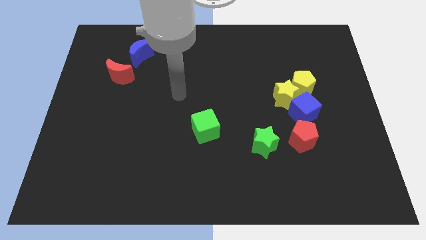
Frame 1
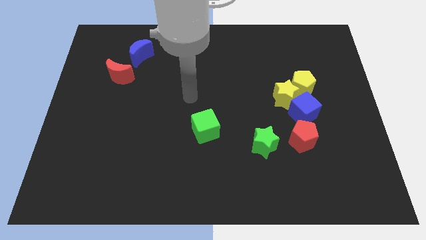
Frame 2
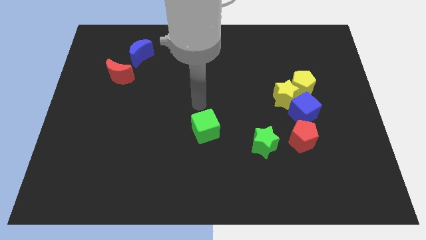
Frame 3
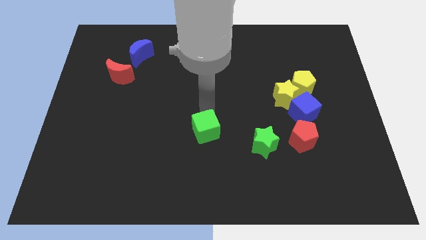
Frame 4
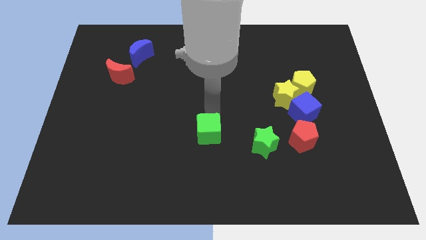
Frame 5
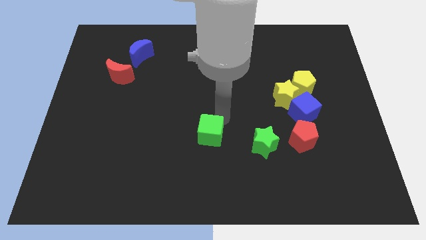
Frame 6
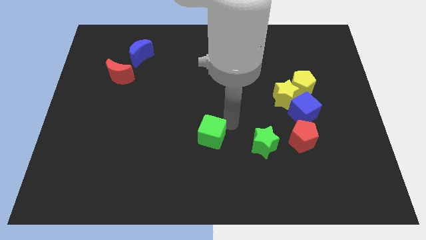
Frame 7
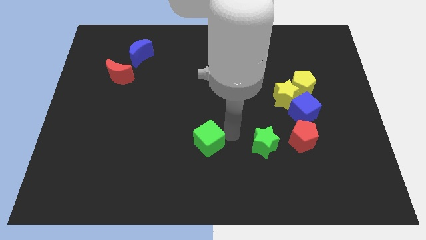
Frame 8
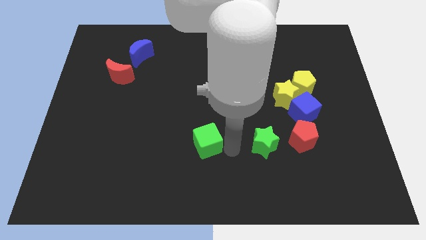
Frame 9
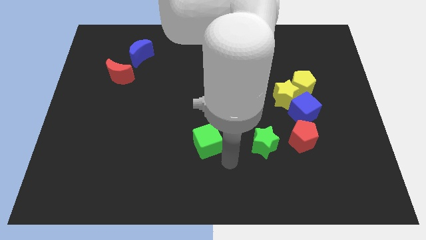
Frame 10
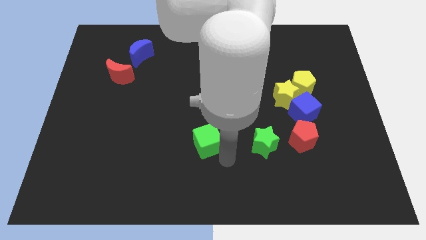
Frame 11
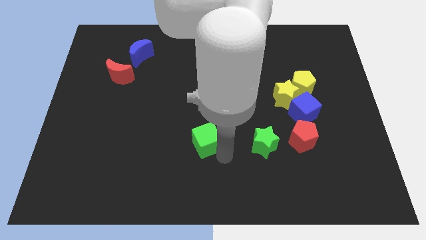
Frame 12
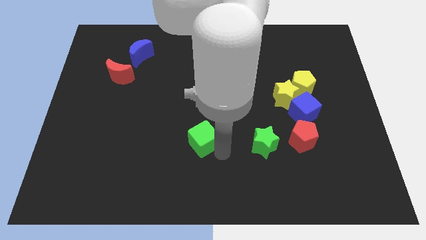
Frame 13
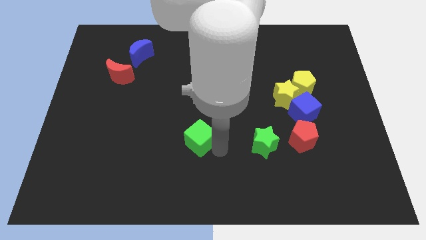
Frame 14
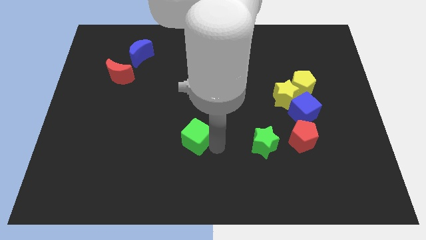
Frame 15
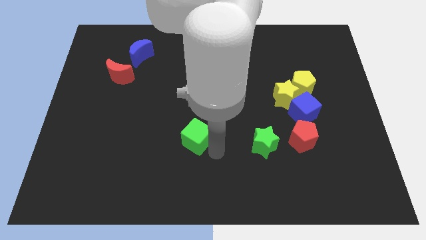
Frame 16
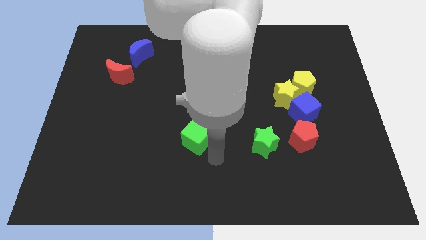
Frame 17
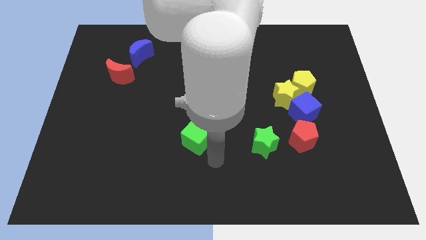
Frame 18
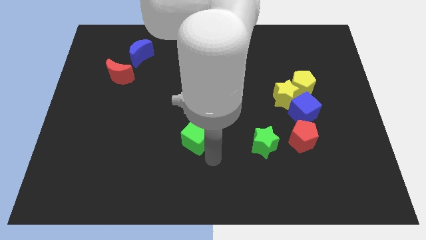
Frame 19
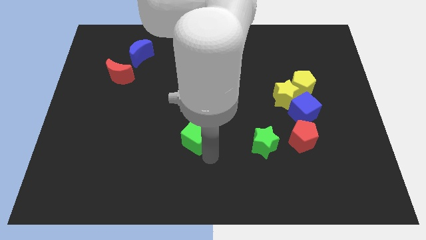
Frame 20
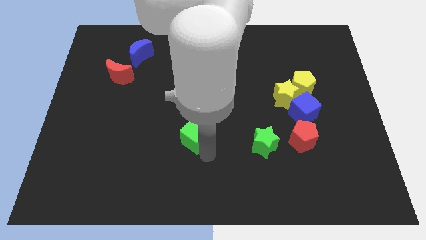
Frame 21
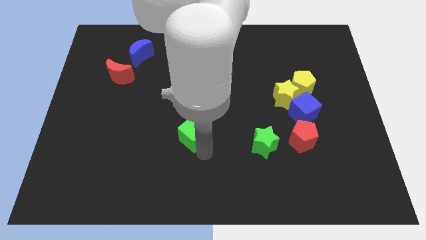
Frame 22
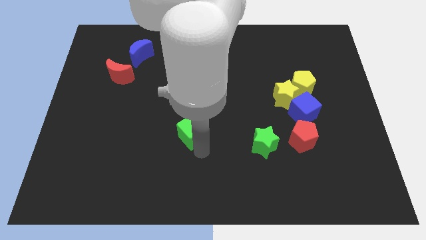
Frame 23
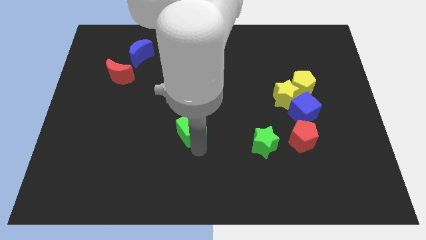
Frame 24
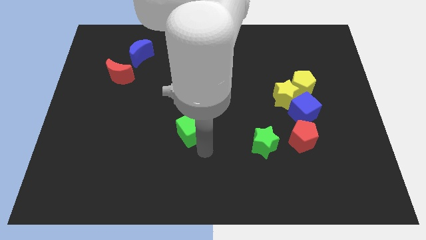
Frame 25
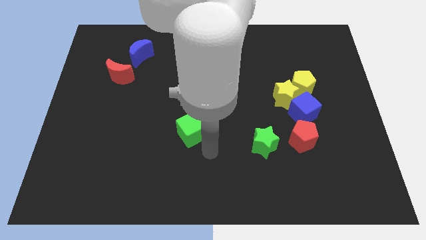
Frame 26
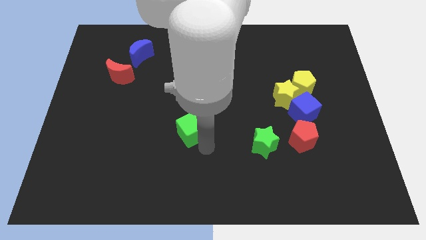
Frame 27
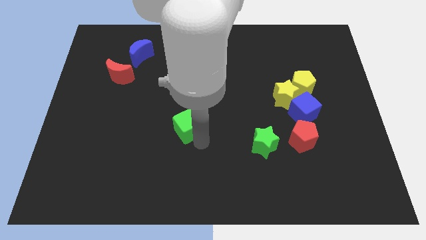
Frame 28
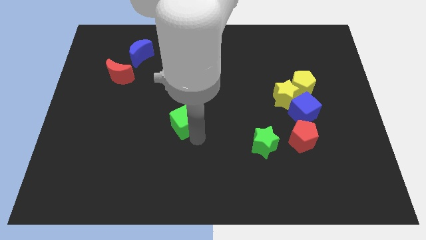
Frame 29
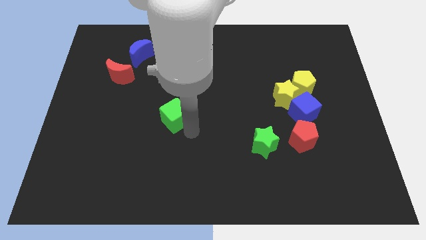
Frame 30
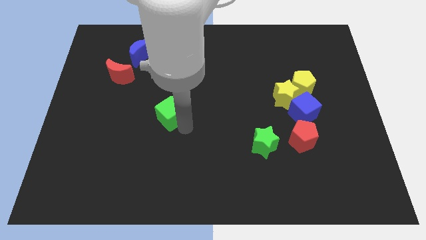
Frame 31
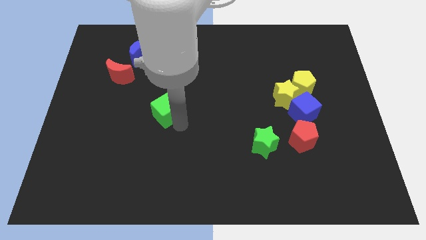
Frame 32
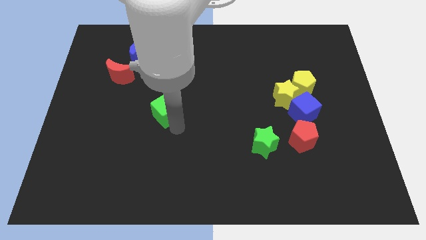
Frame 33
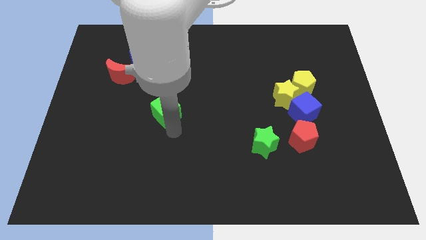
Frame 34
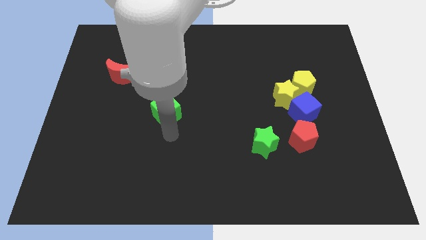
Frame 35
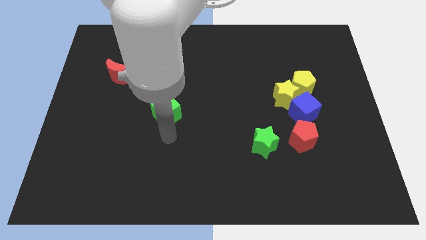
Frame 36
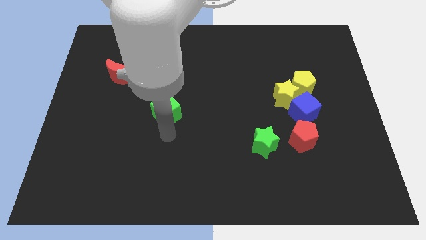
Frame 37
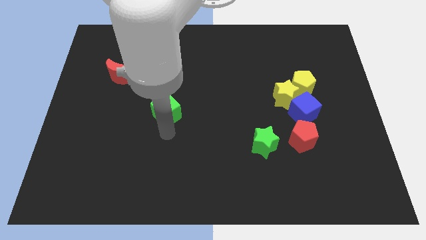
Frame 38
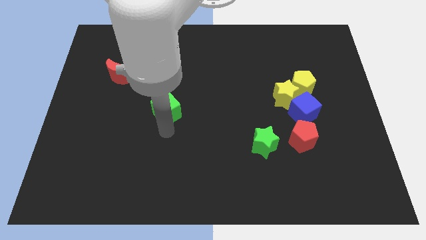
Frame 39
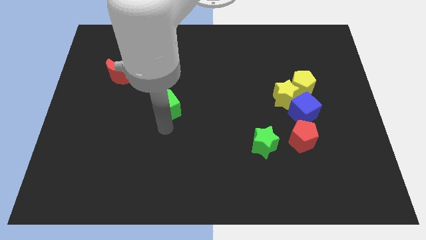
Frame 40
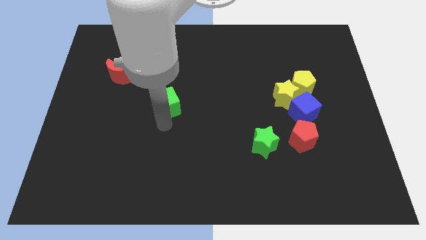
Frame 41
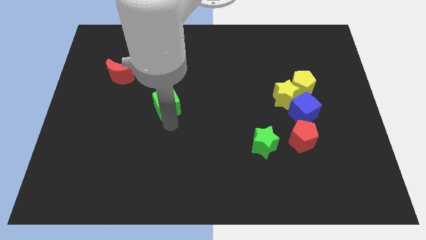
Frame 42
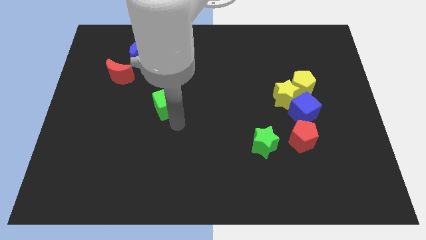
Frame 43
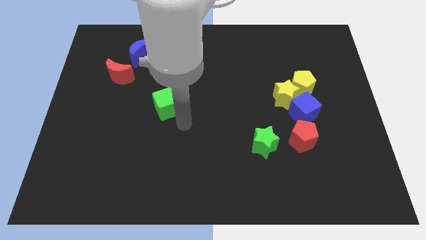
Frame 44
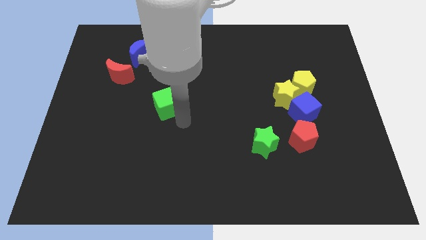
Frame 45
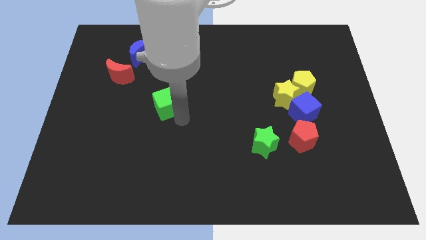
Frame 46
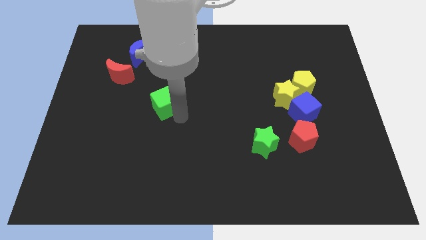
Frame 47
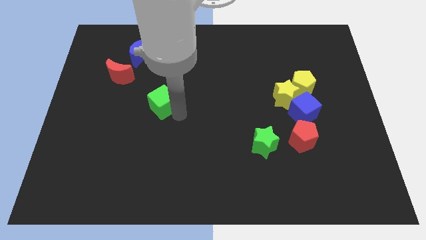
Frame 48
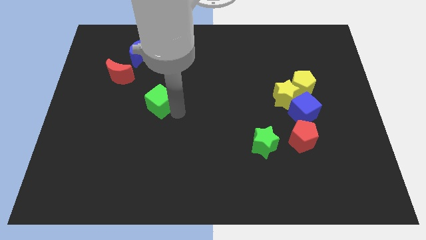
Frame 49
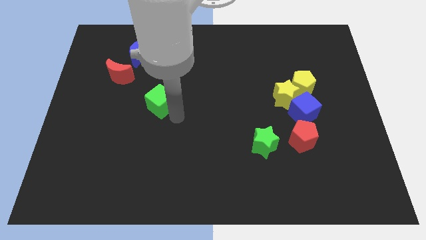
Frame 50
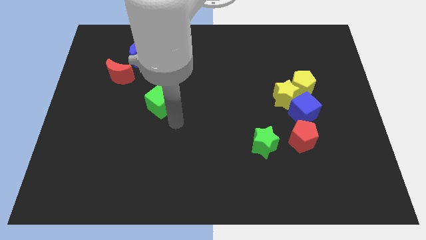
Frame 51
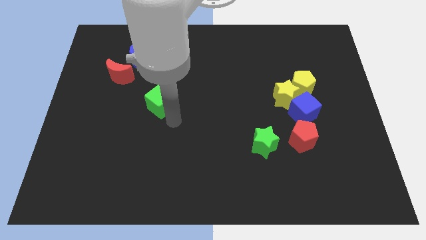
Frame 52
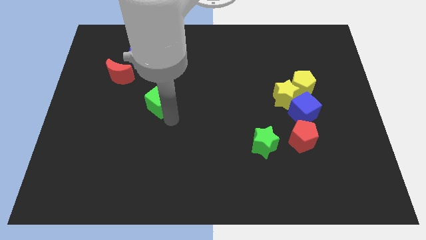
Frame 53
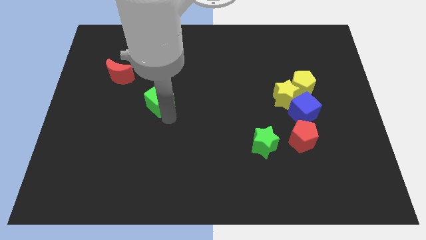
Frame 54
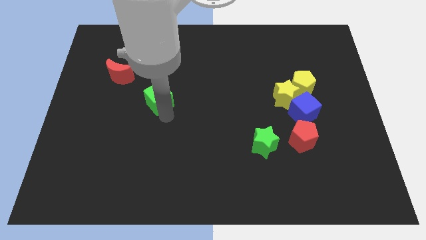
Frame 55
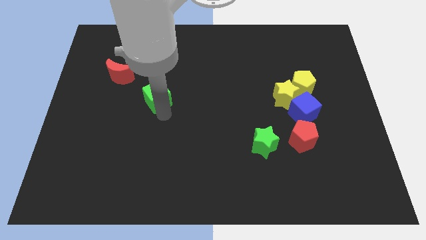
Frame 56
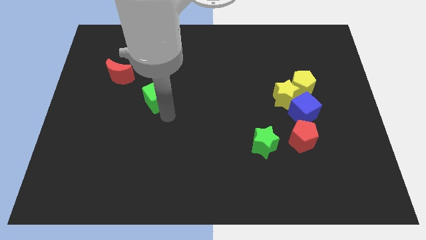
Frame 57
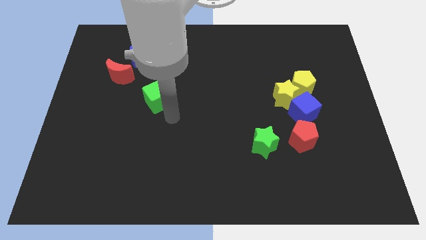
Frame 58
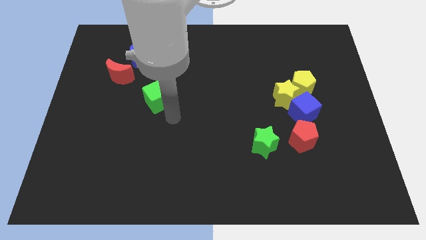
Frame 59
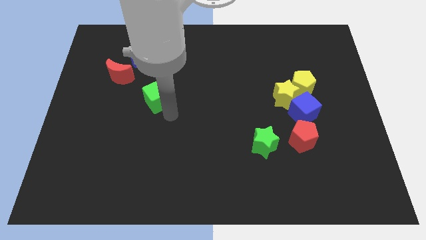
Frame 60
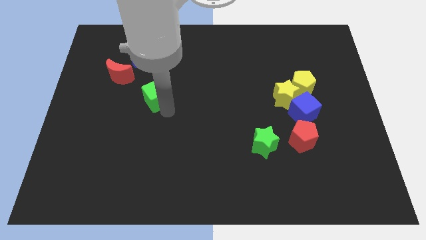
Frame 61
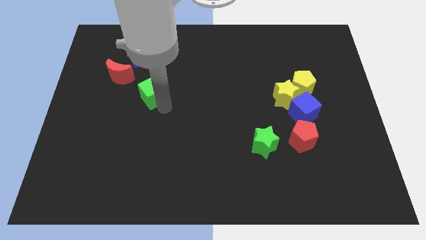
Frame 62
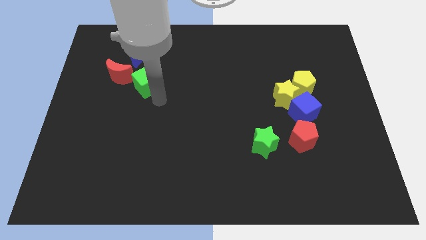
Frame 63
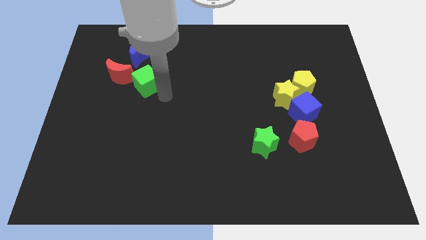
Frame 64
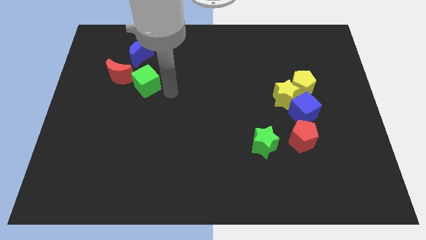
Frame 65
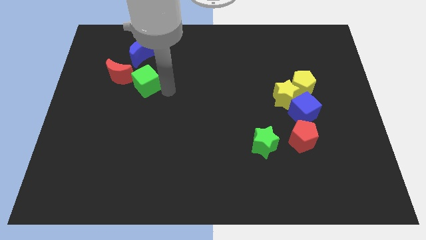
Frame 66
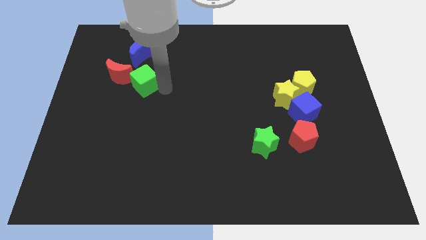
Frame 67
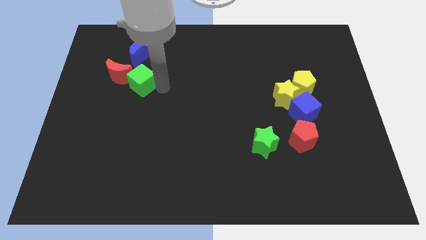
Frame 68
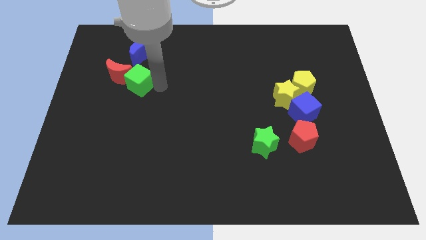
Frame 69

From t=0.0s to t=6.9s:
move the green cube close to the red moon
